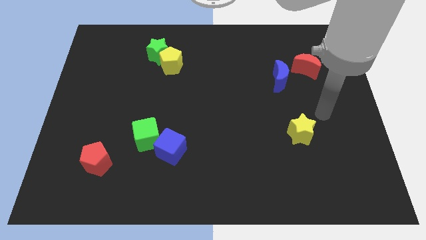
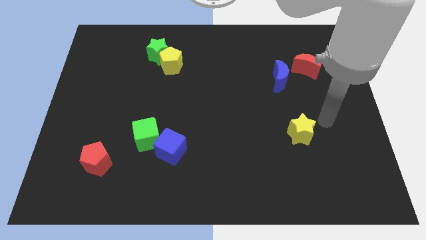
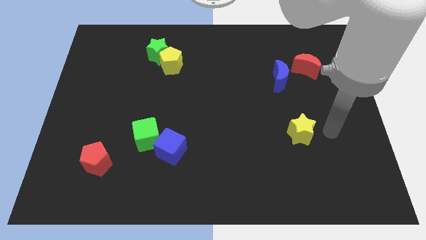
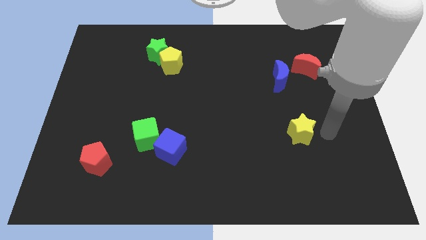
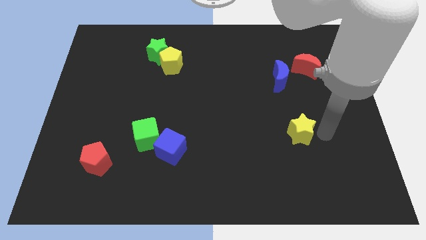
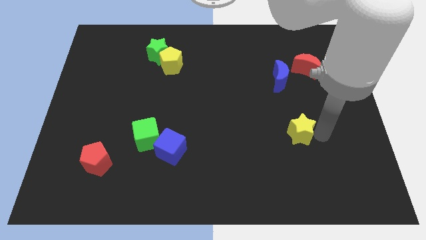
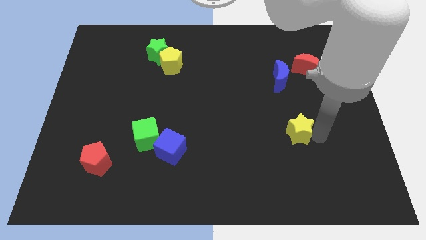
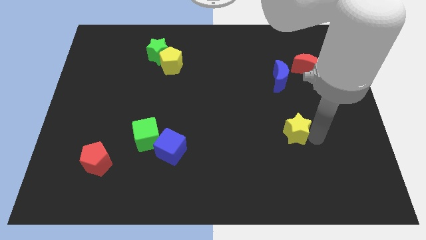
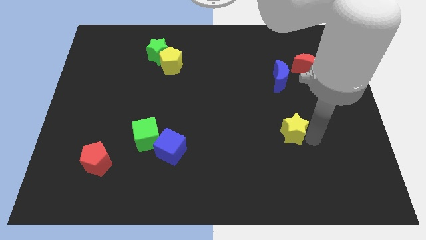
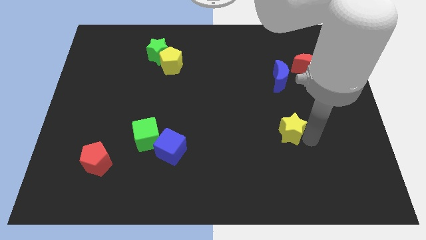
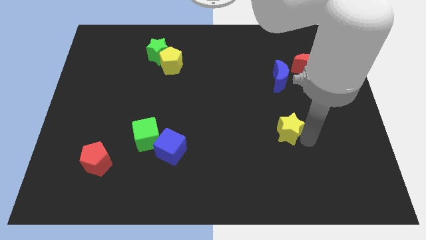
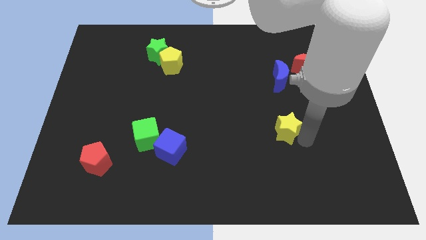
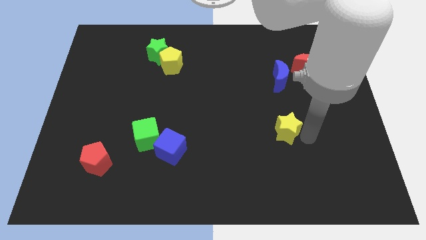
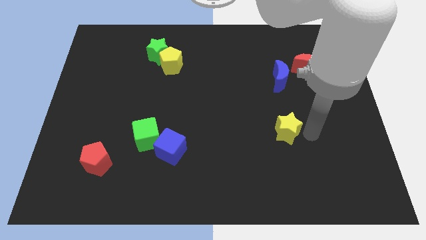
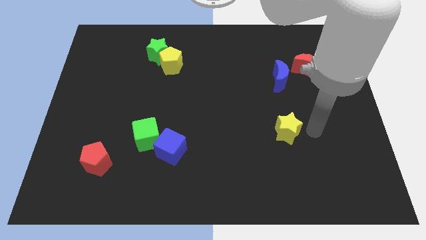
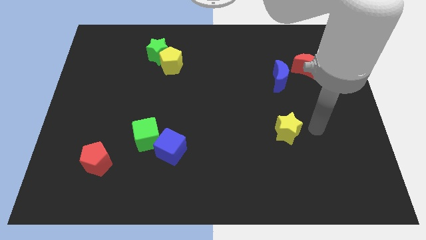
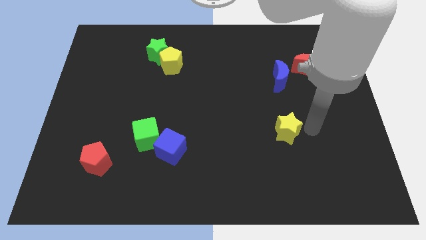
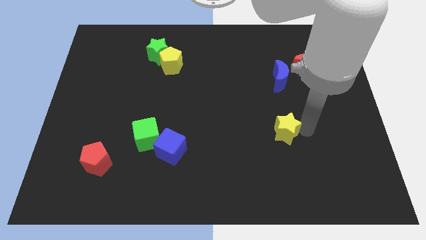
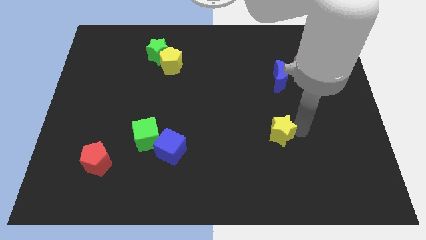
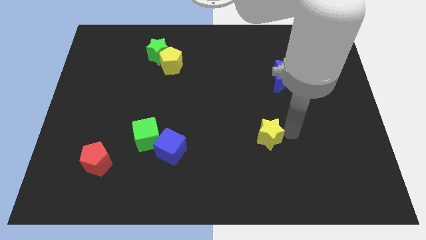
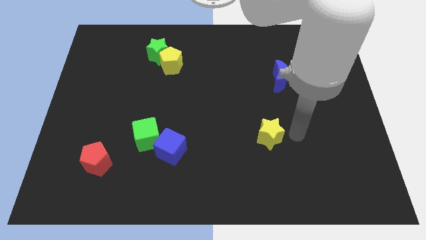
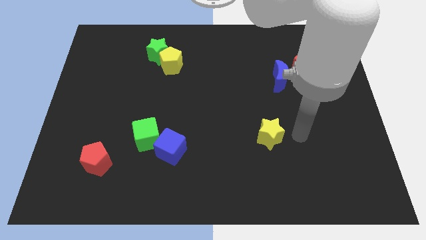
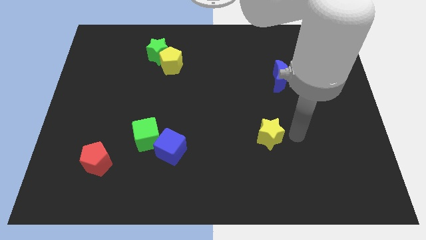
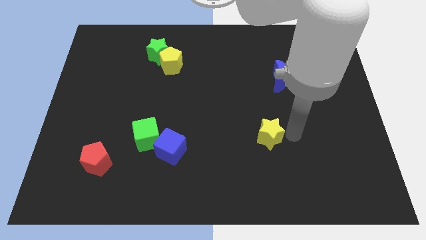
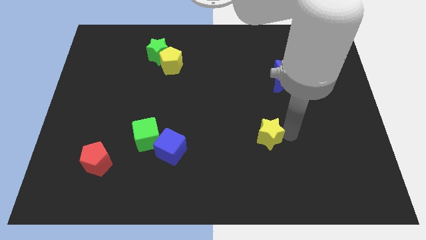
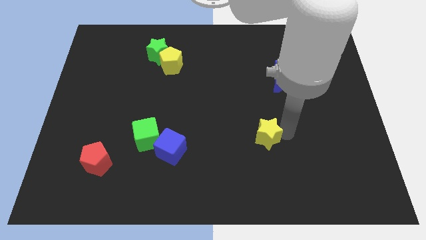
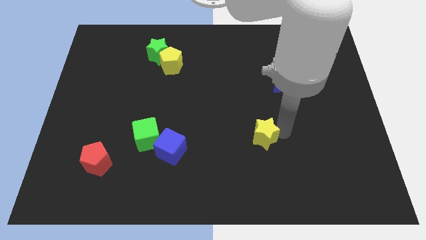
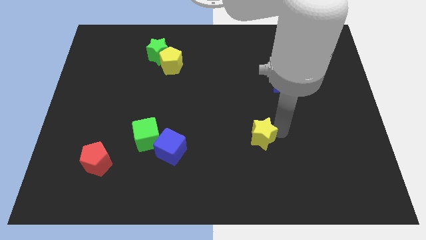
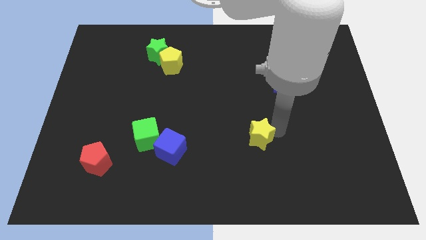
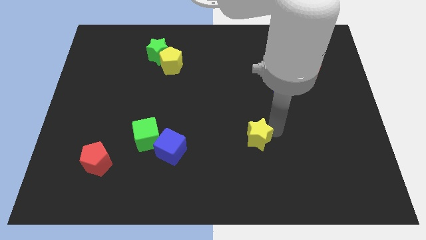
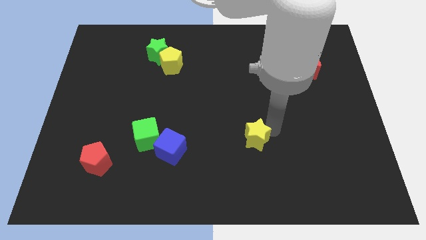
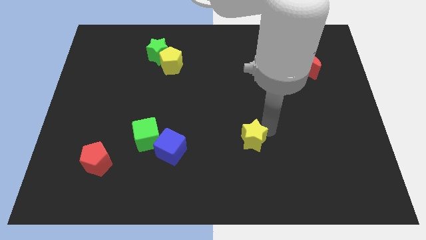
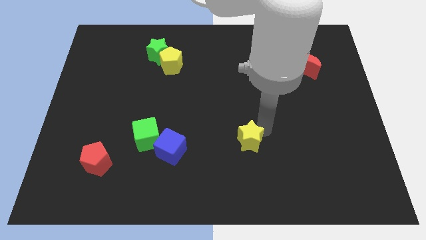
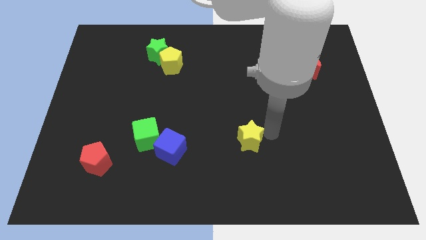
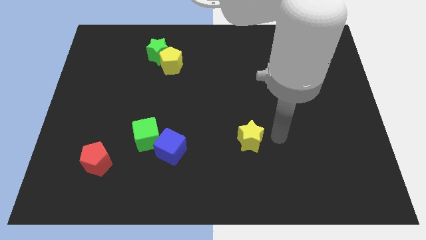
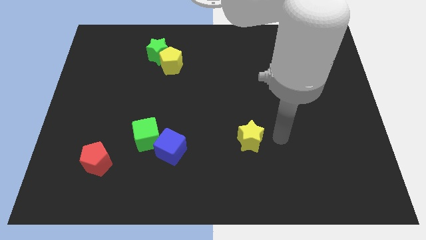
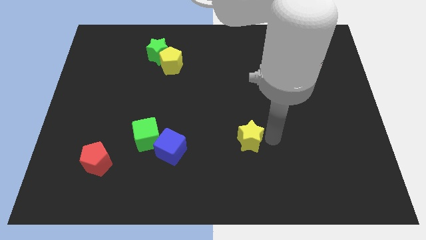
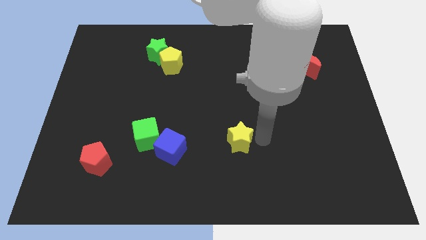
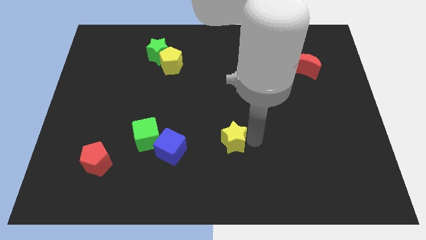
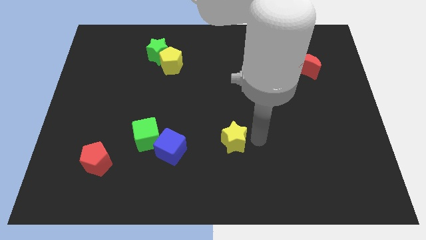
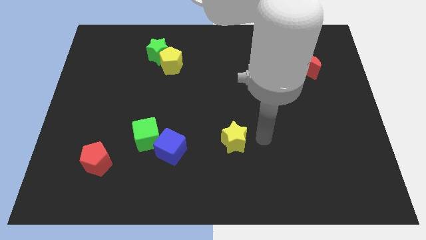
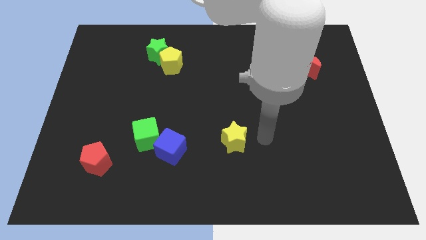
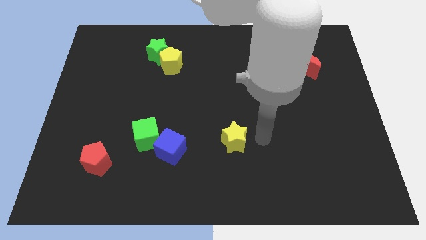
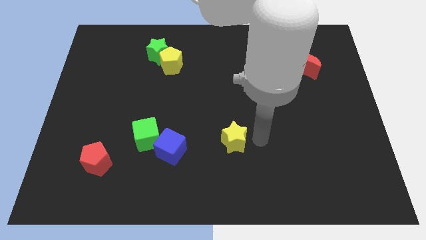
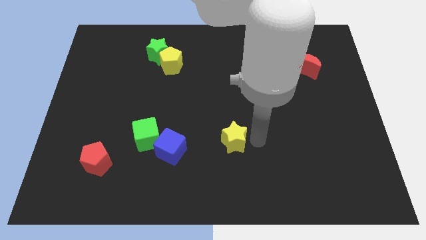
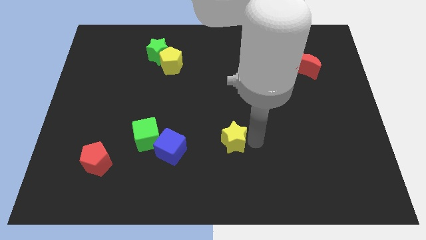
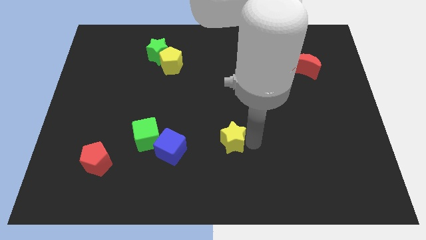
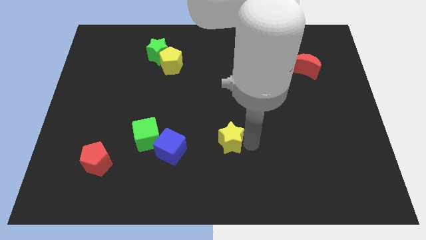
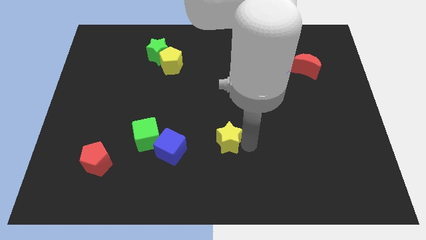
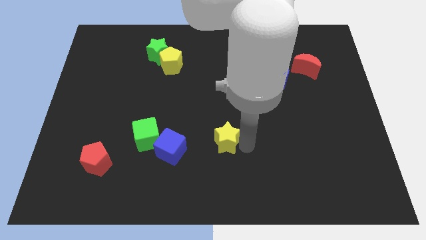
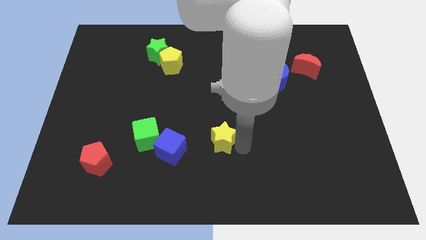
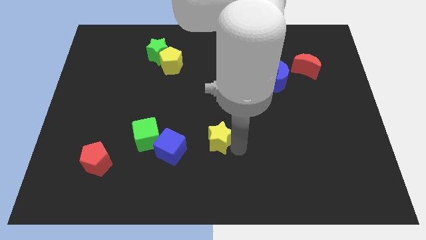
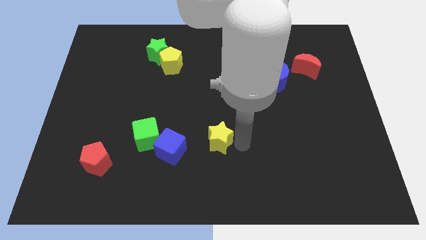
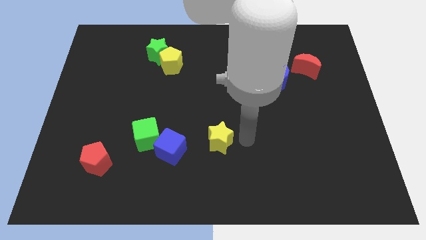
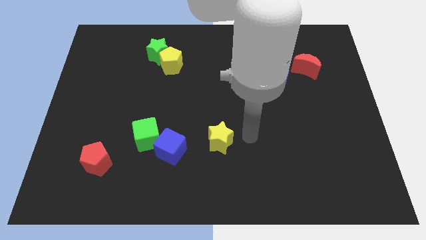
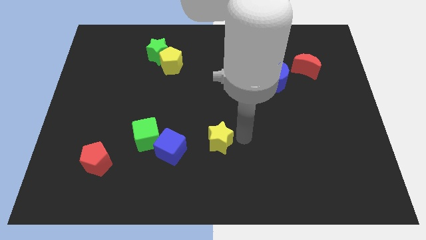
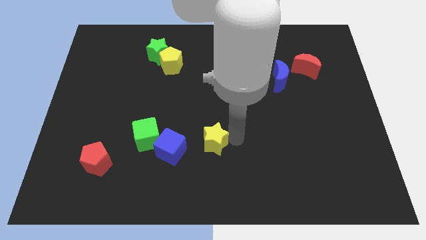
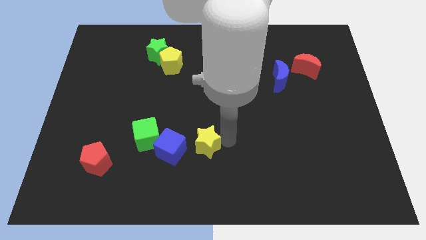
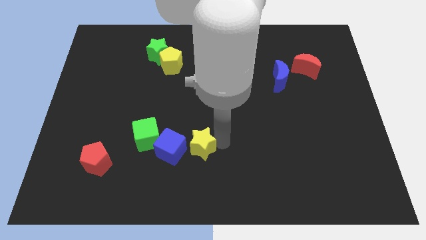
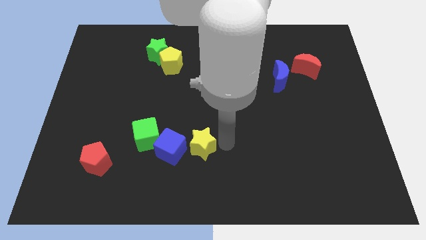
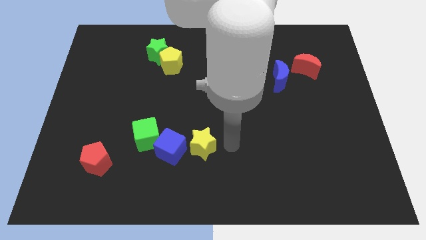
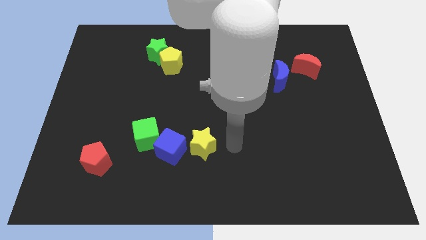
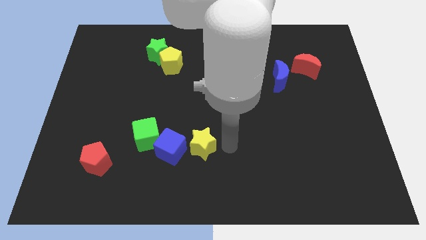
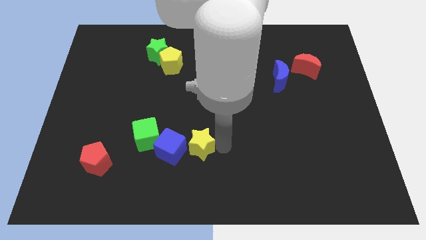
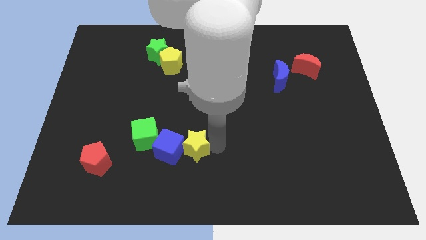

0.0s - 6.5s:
slide the yellow star to the blue cube

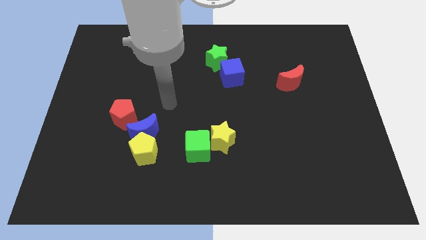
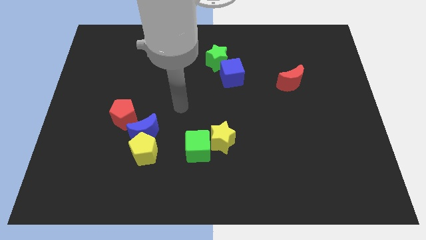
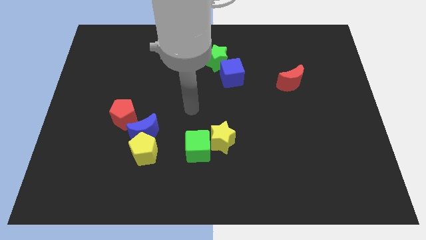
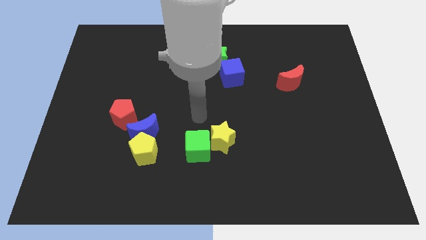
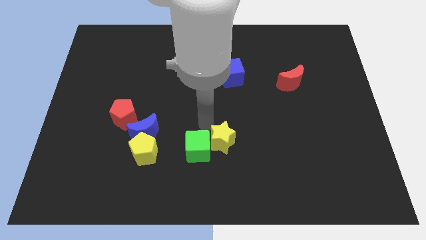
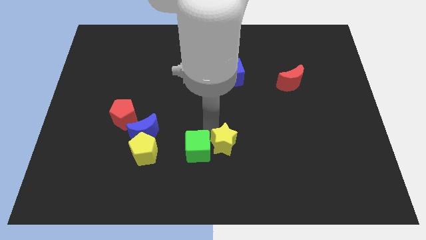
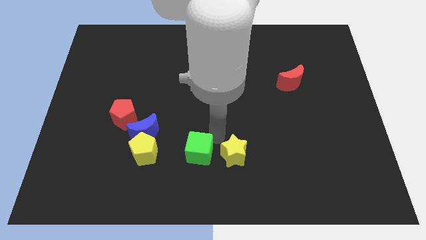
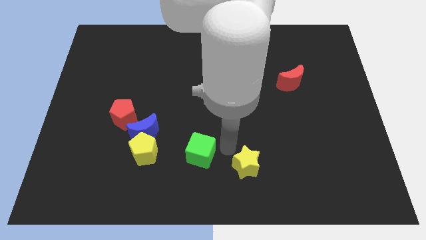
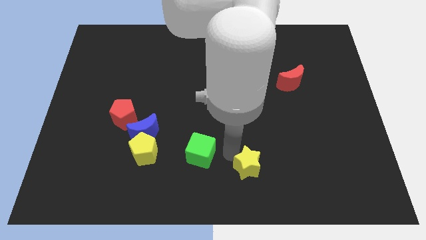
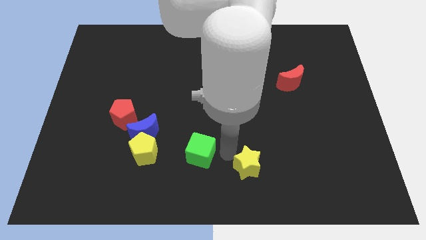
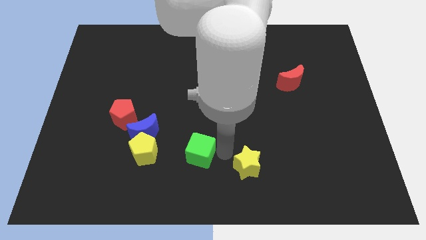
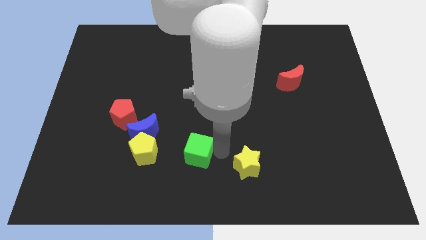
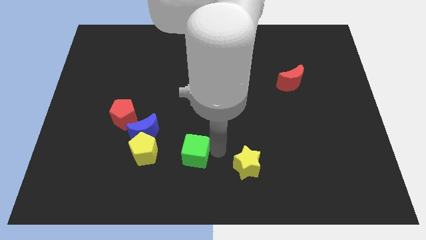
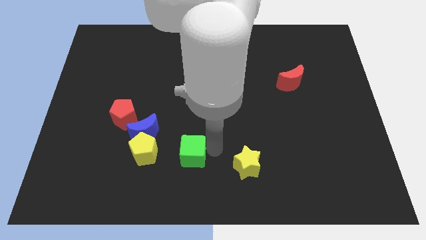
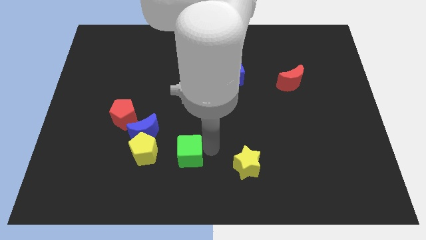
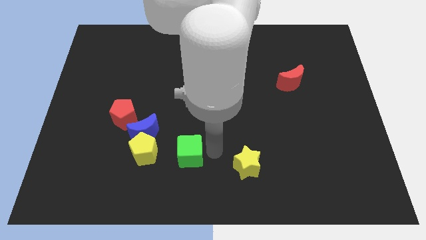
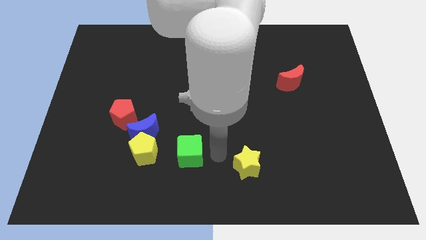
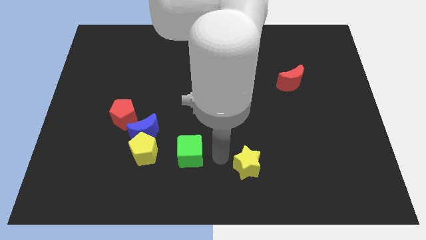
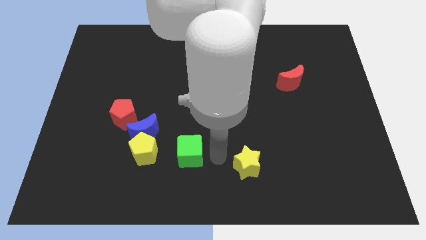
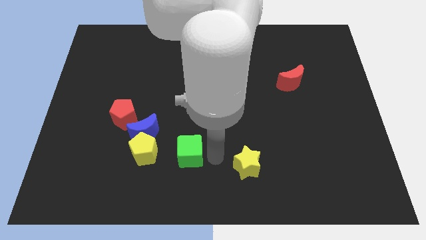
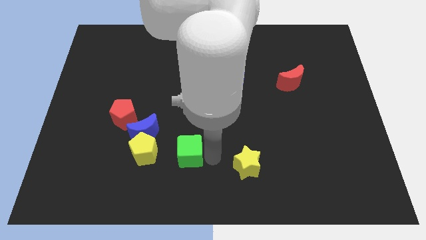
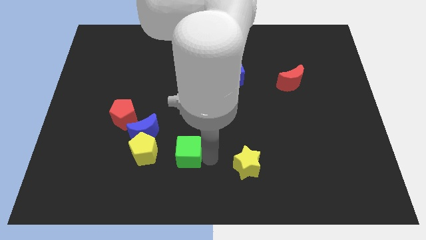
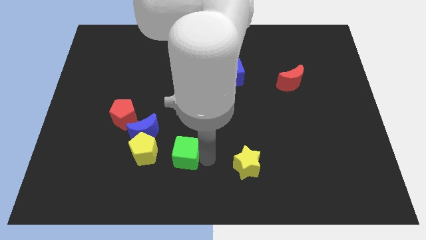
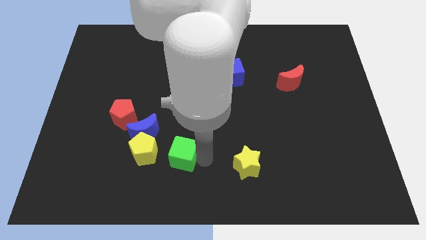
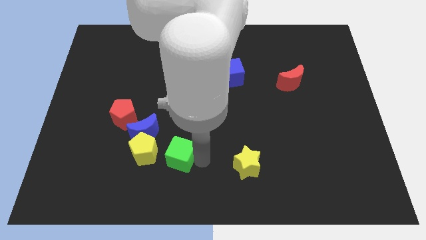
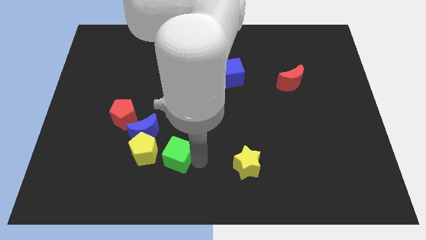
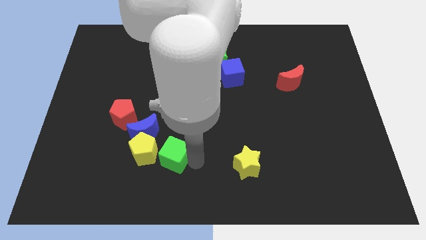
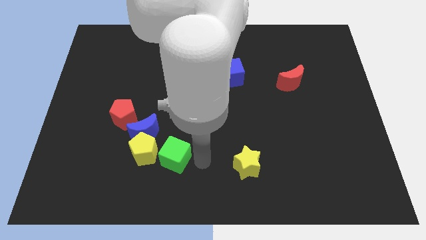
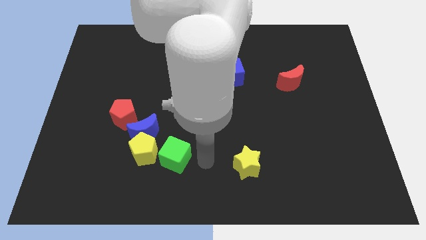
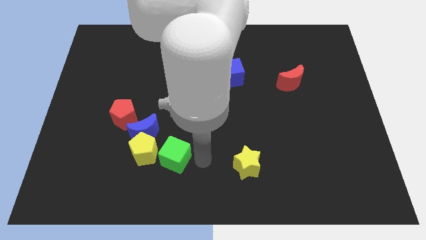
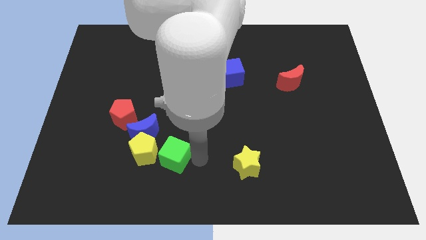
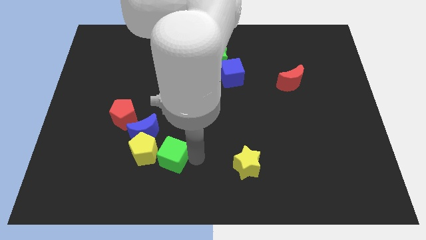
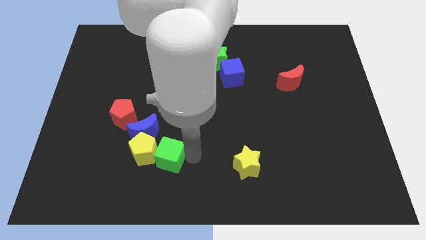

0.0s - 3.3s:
move the green cube next to the yellow pentagon
